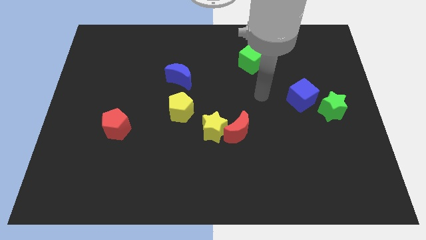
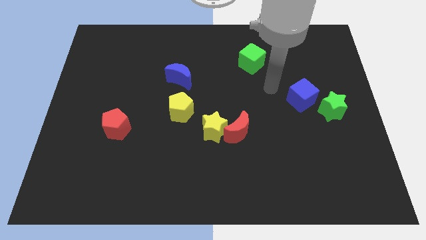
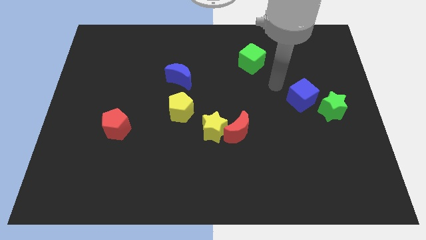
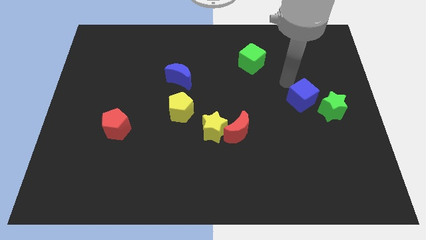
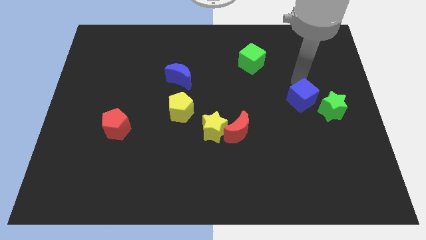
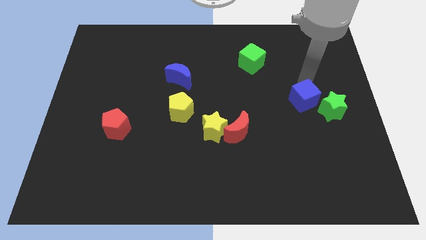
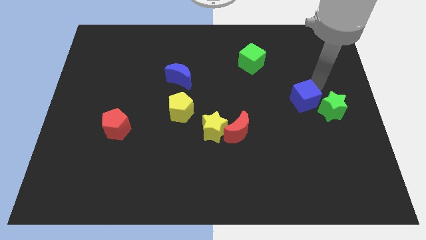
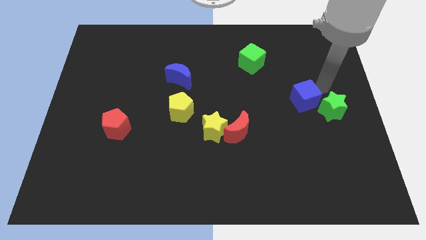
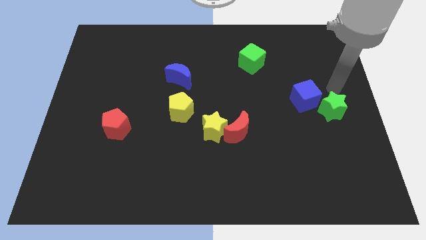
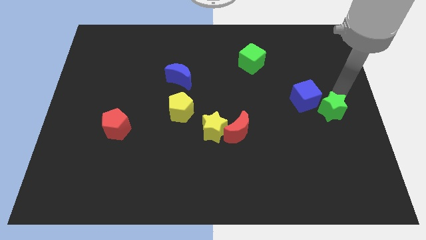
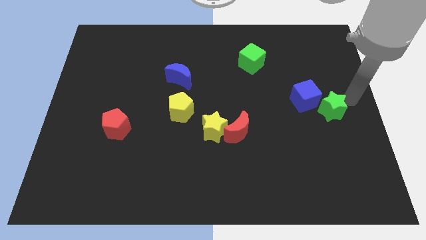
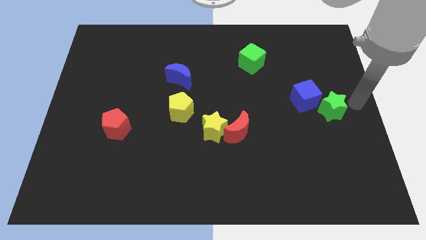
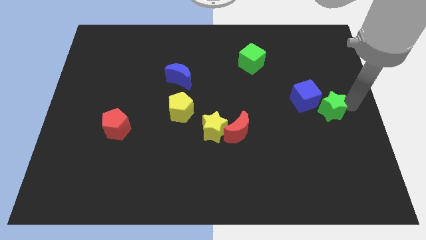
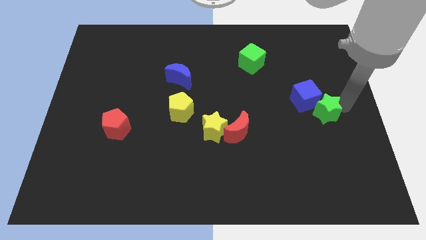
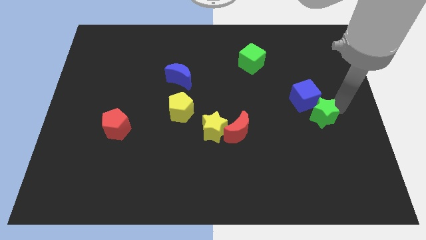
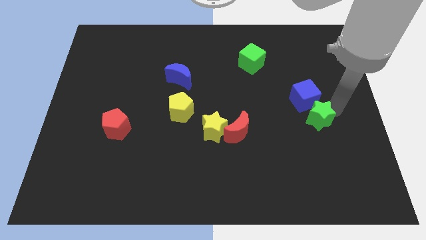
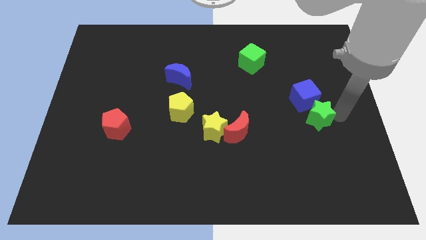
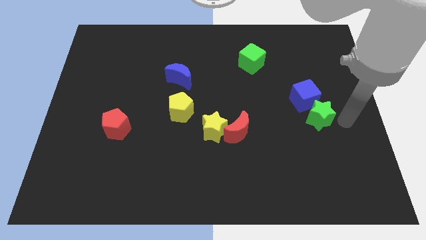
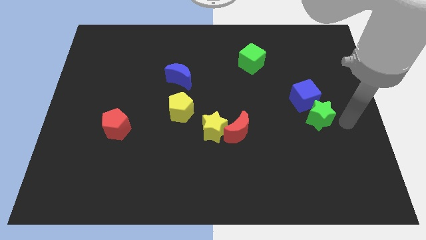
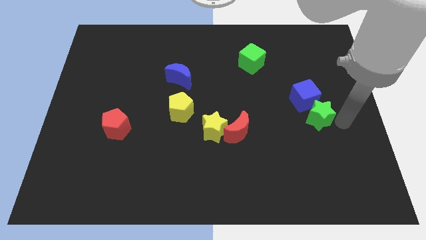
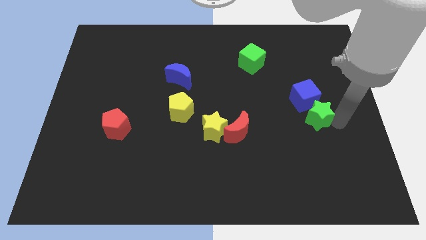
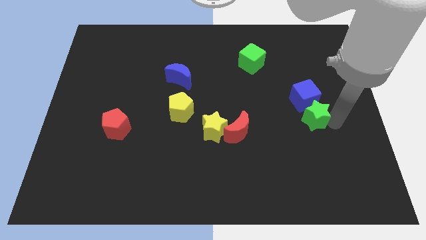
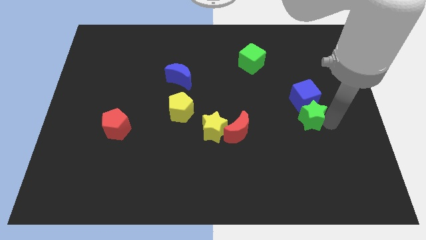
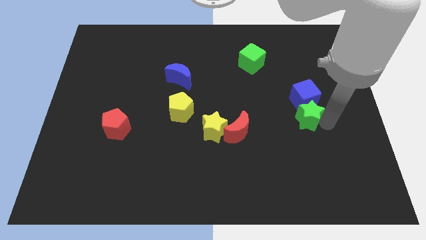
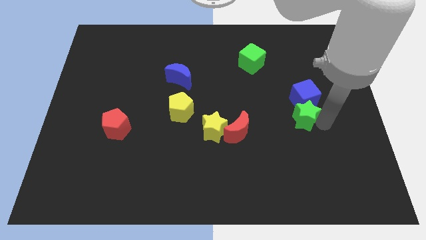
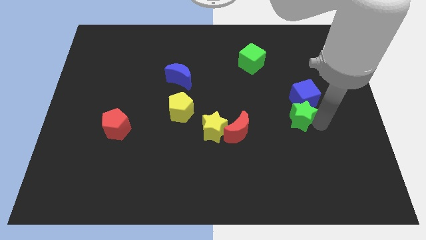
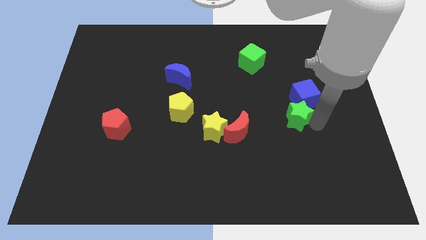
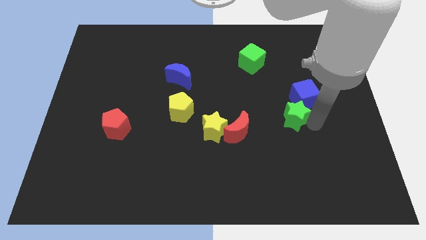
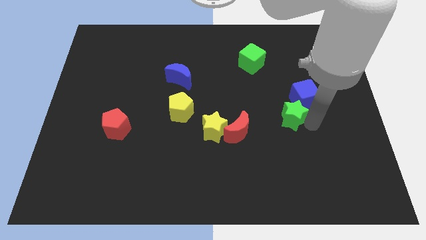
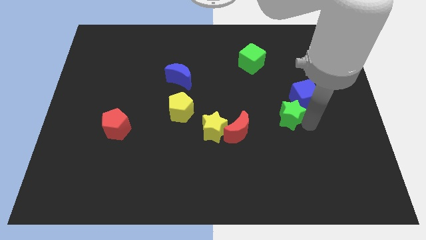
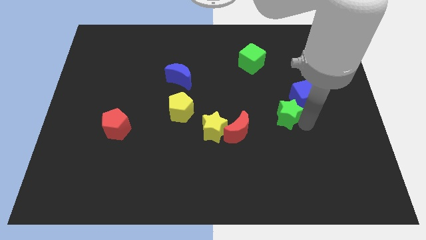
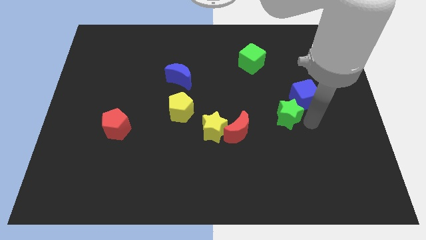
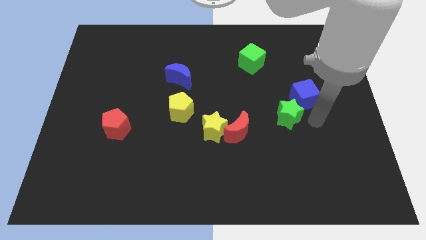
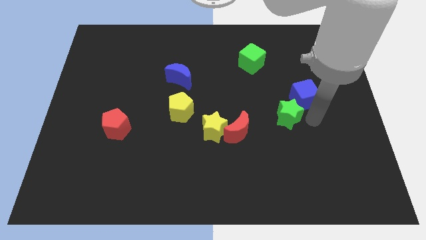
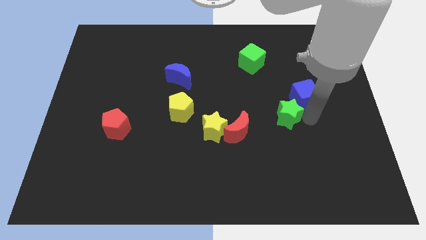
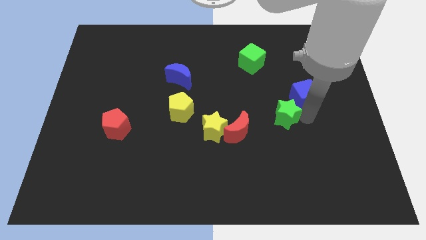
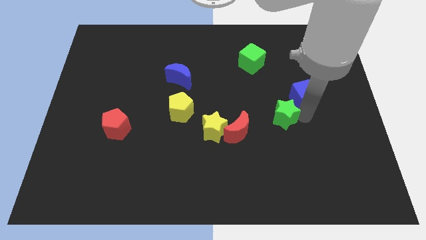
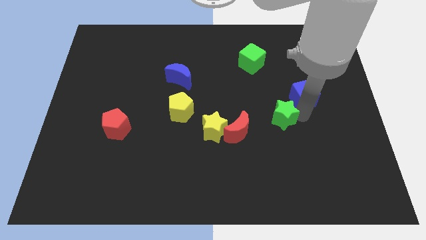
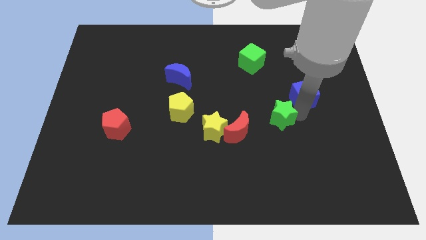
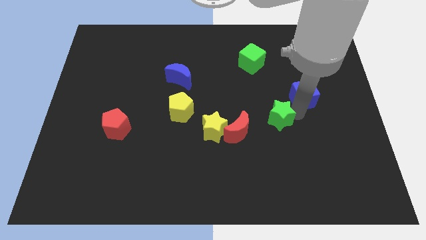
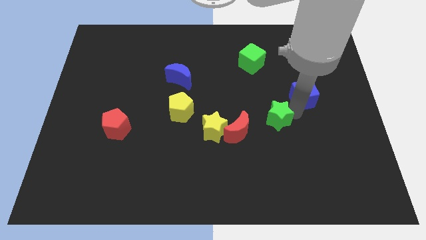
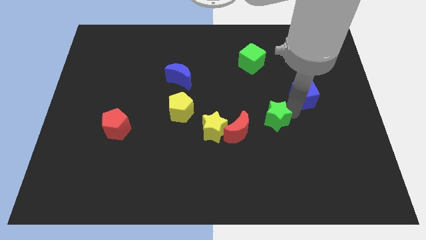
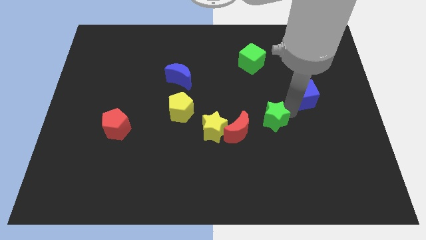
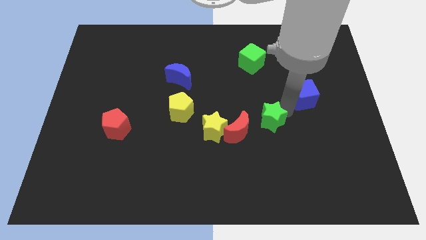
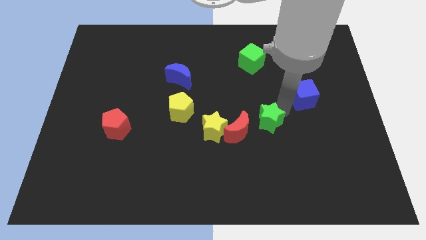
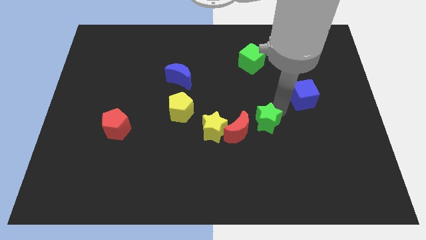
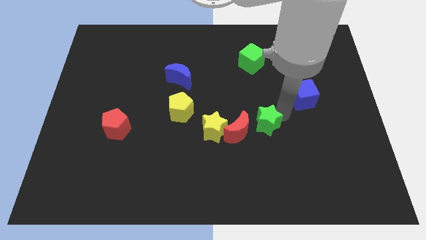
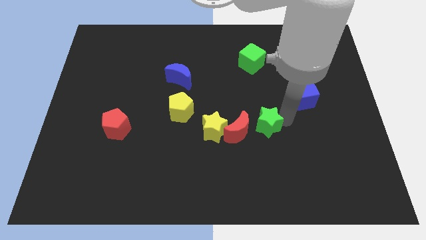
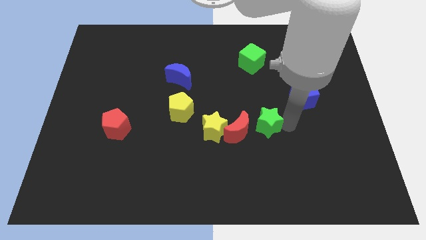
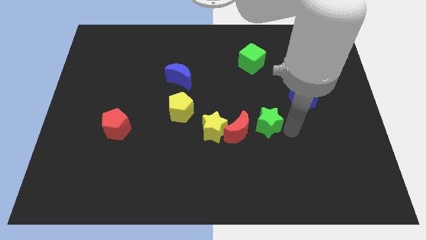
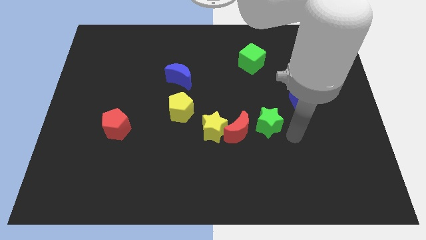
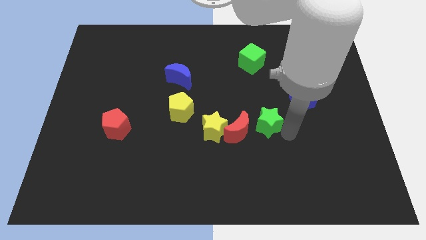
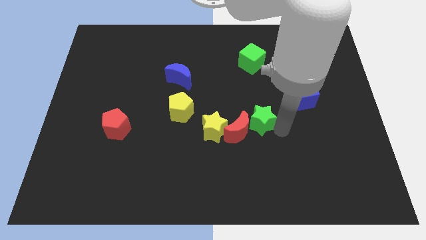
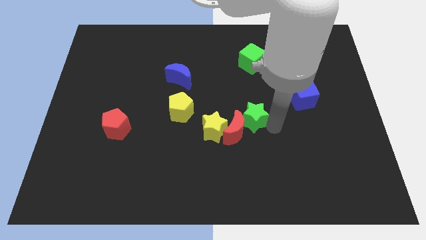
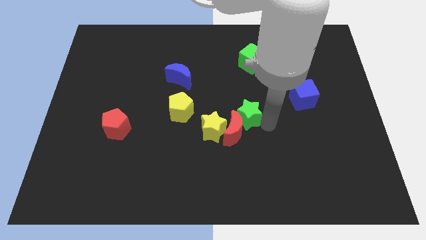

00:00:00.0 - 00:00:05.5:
push the green star right of the yellow pentagon

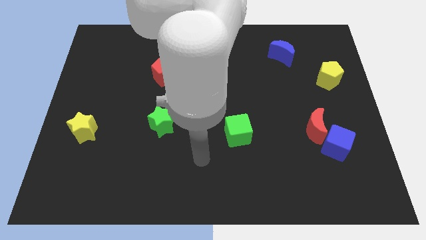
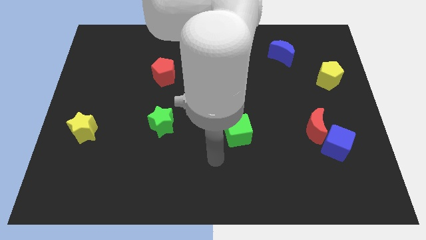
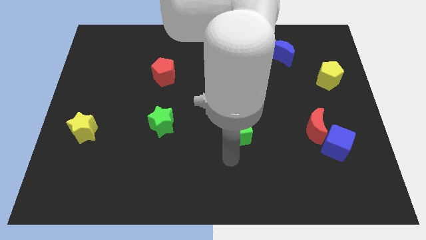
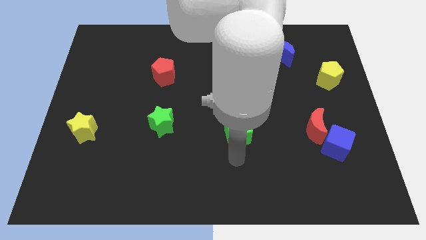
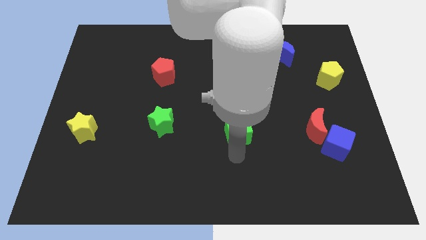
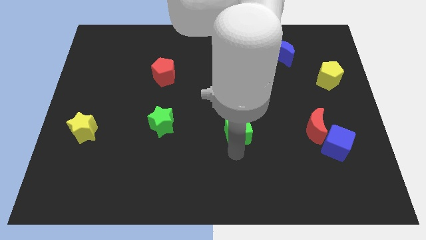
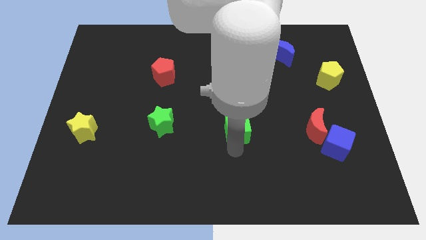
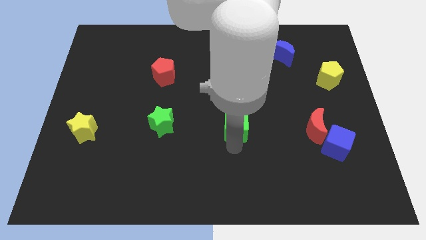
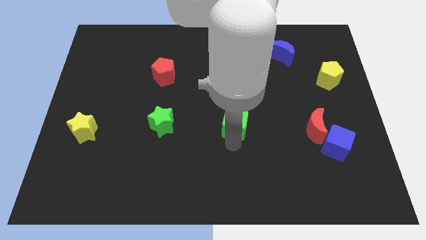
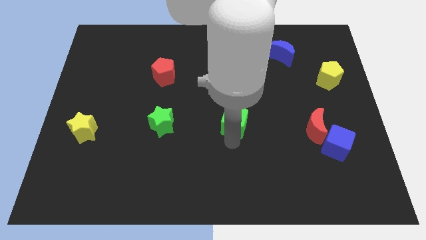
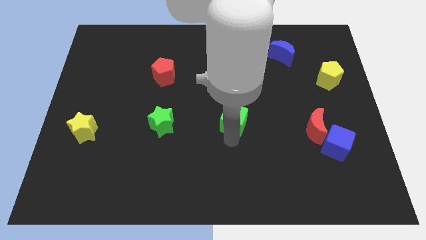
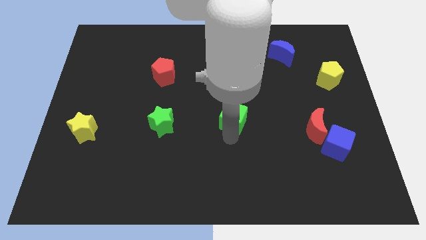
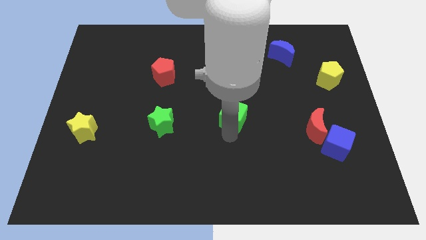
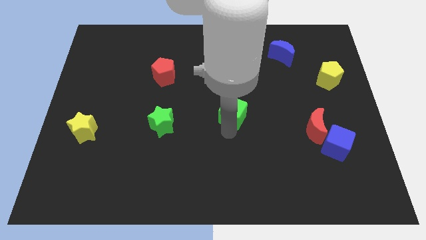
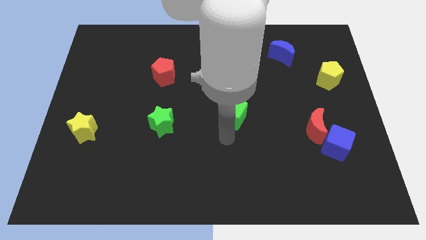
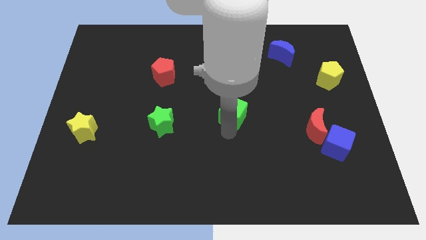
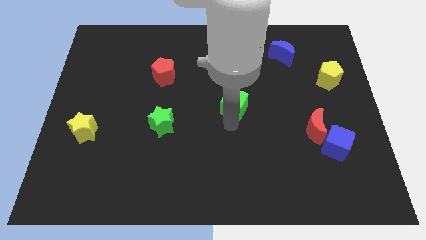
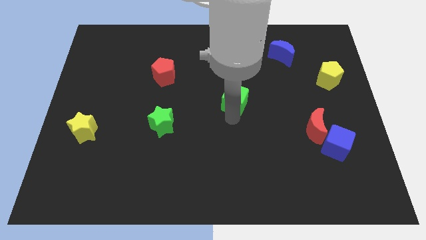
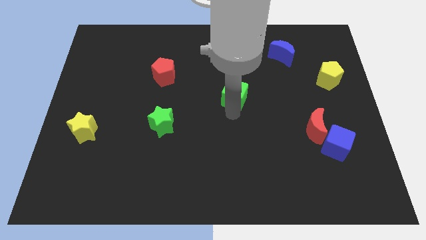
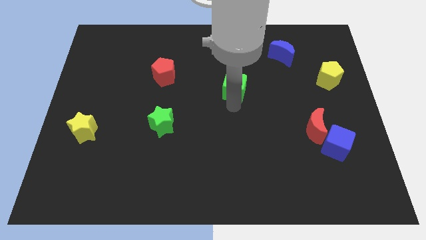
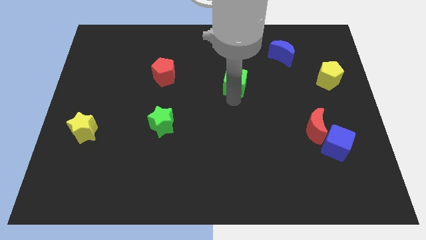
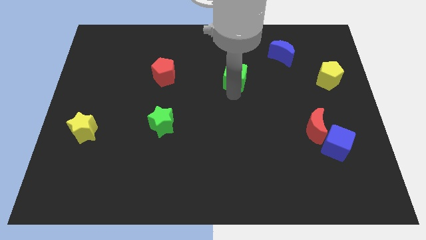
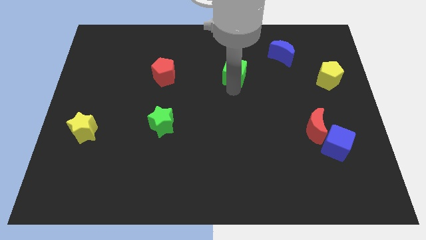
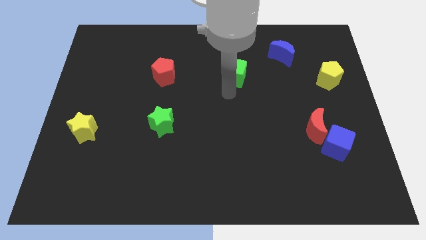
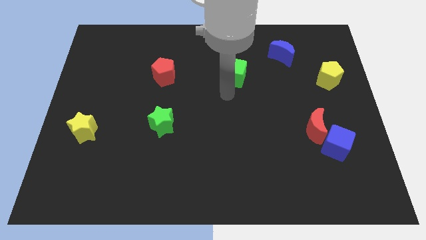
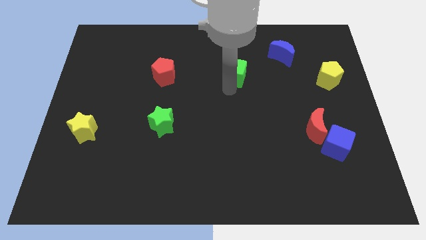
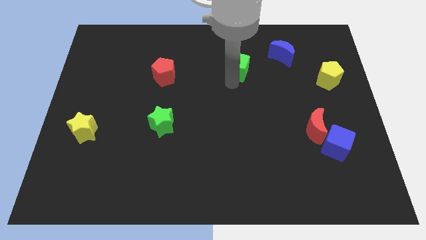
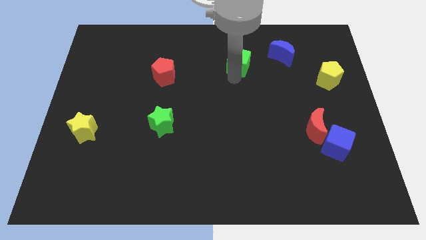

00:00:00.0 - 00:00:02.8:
push the green cube just left of the blue moon

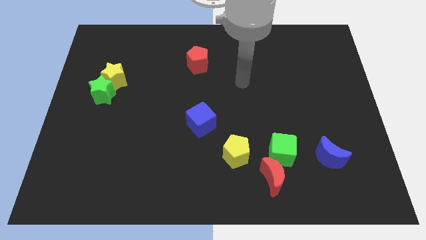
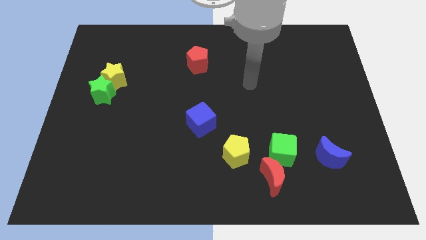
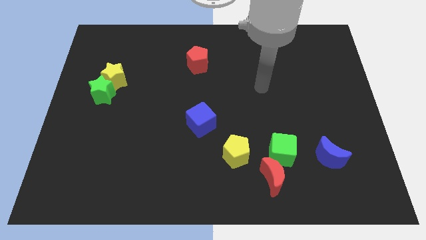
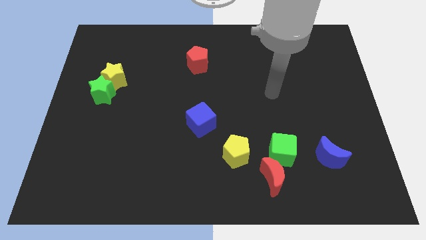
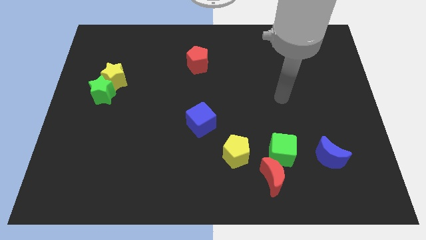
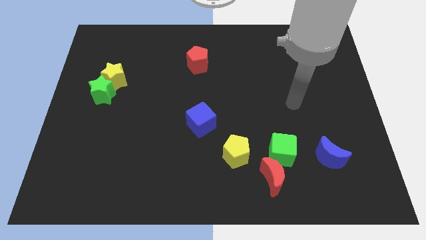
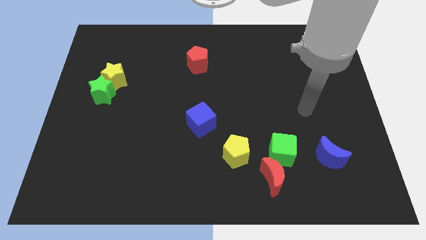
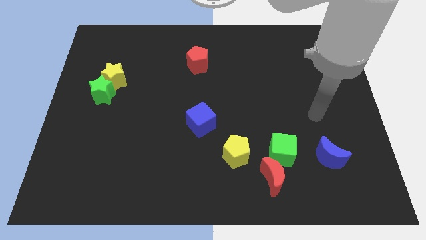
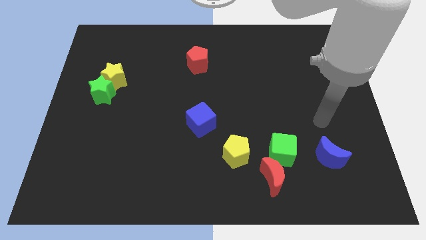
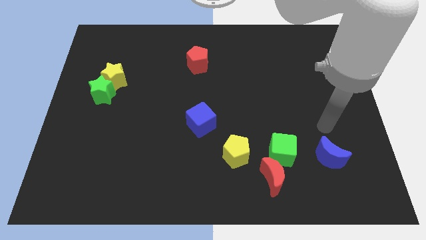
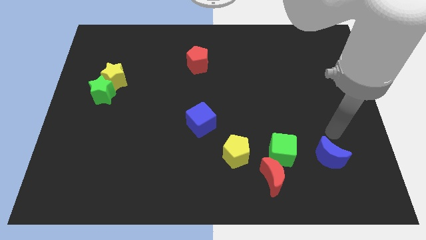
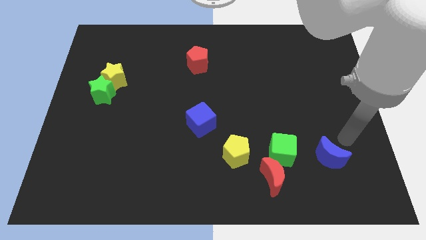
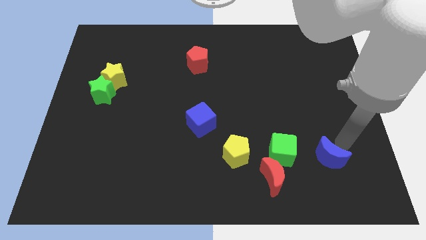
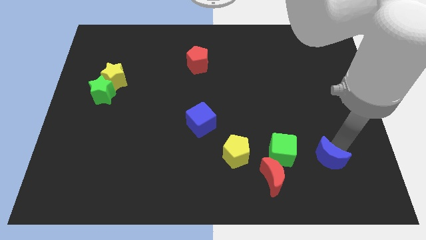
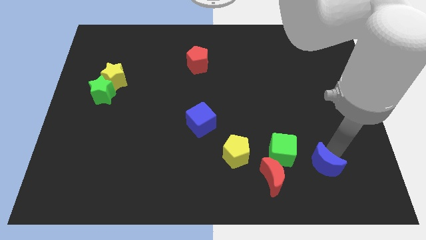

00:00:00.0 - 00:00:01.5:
push the blue moon to the bottom right side of the green cube
